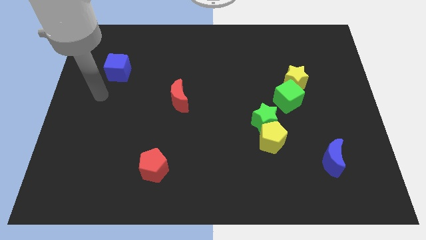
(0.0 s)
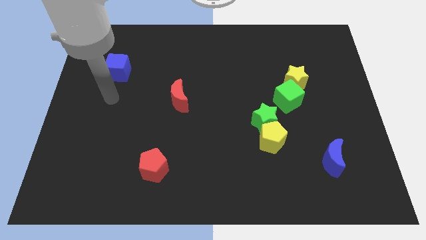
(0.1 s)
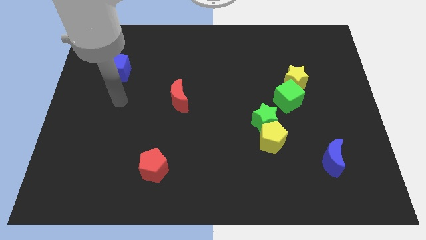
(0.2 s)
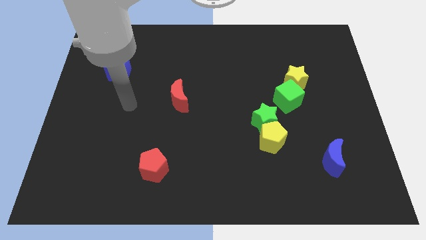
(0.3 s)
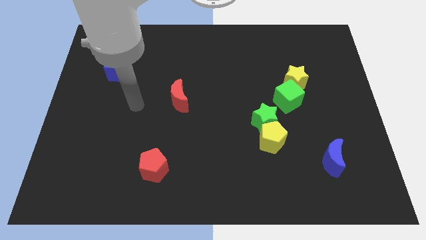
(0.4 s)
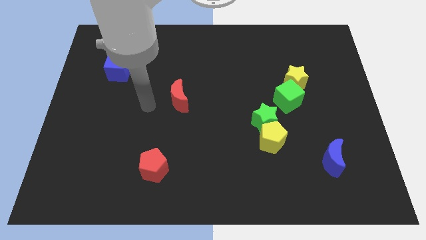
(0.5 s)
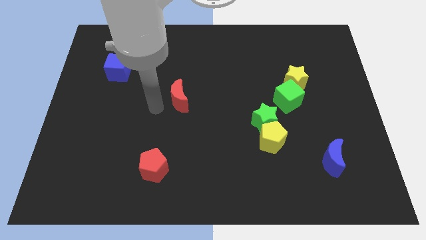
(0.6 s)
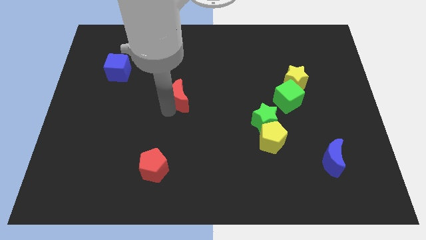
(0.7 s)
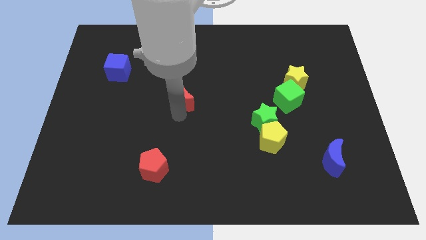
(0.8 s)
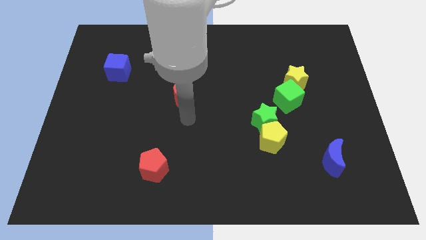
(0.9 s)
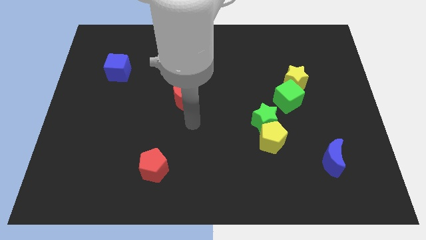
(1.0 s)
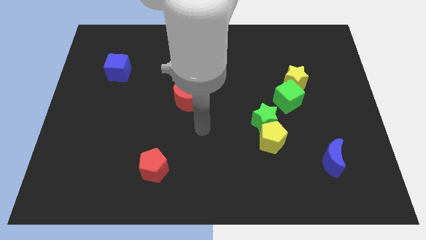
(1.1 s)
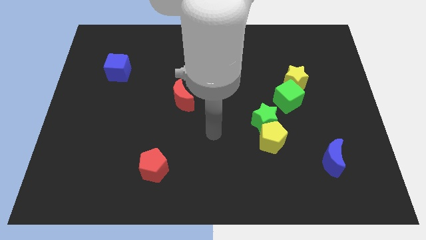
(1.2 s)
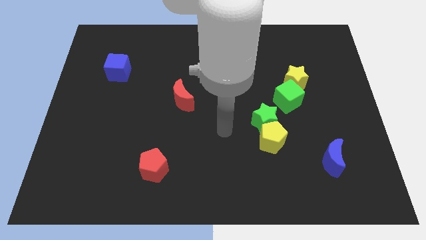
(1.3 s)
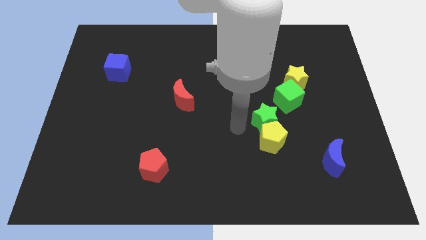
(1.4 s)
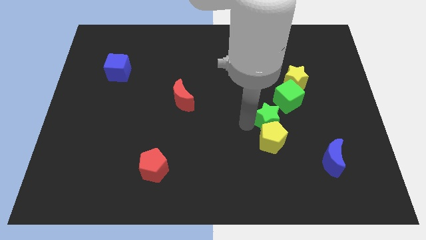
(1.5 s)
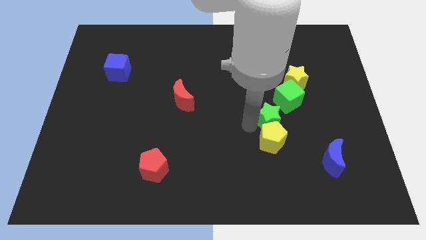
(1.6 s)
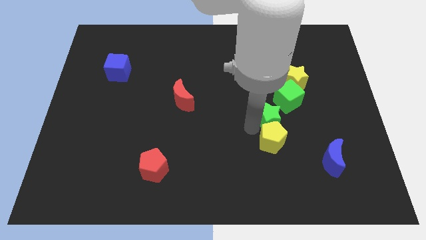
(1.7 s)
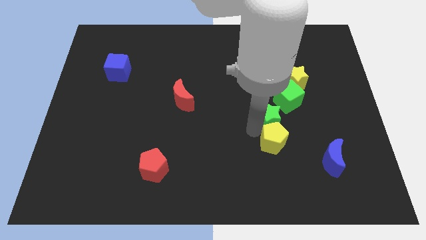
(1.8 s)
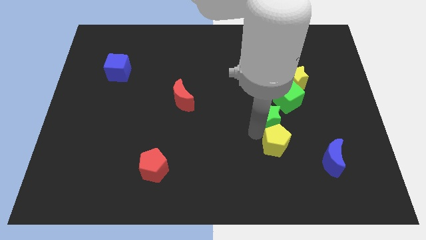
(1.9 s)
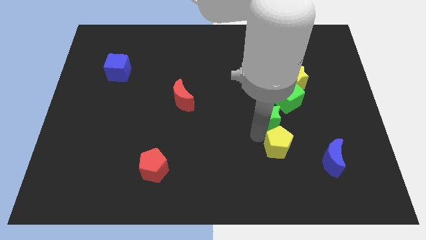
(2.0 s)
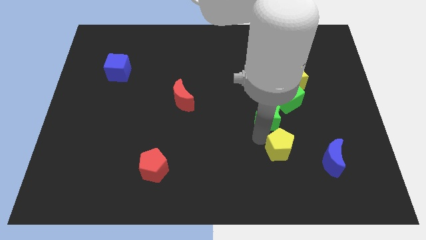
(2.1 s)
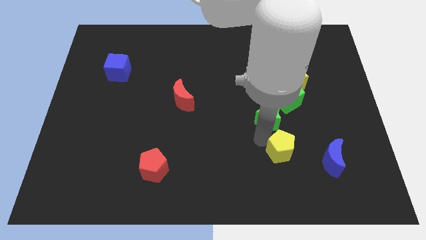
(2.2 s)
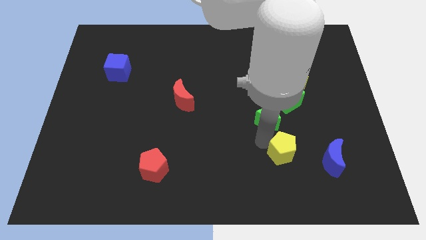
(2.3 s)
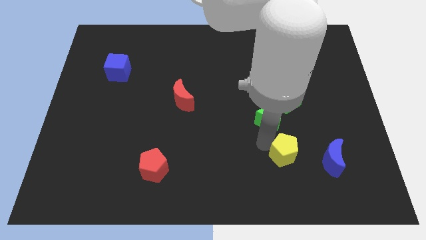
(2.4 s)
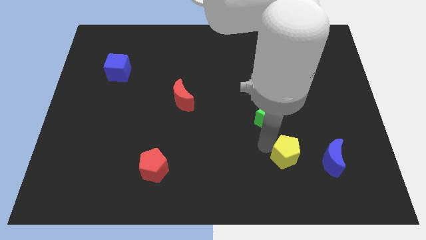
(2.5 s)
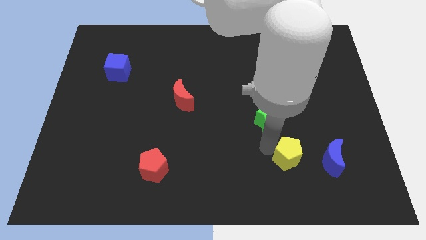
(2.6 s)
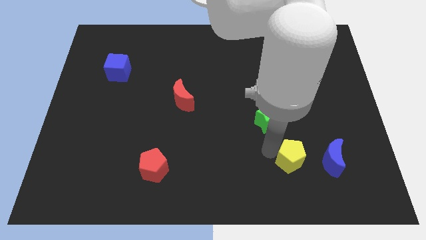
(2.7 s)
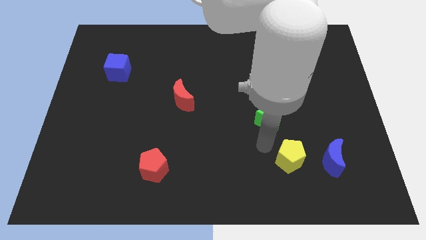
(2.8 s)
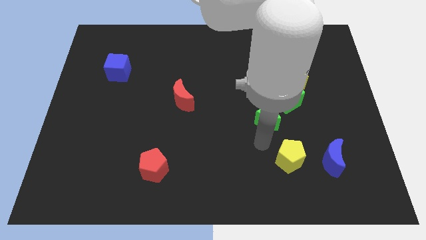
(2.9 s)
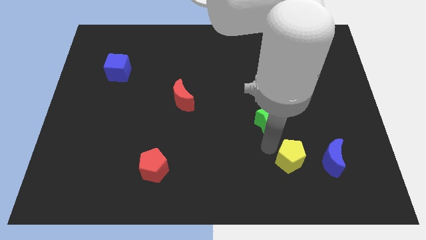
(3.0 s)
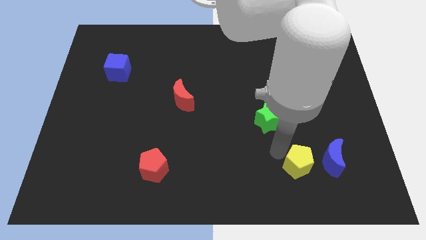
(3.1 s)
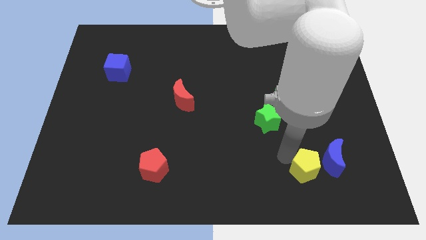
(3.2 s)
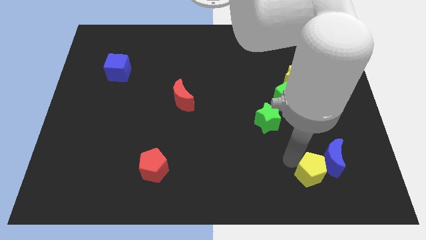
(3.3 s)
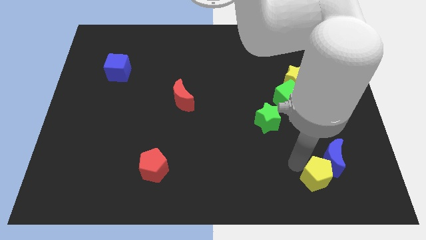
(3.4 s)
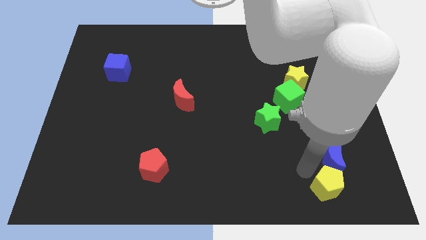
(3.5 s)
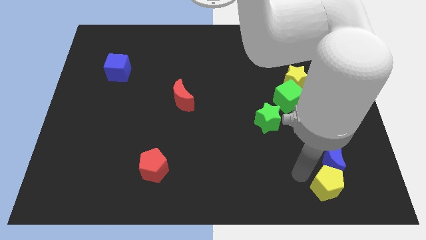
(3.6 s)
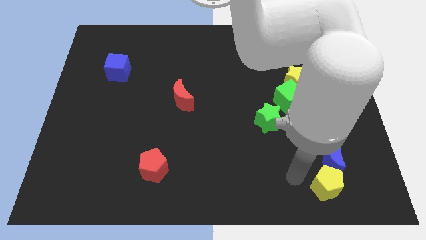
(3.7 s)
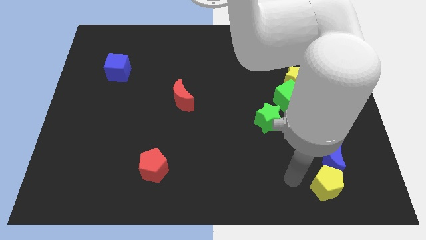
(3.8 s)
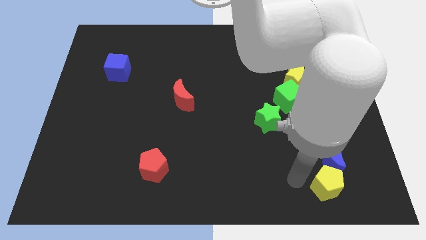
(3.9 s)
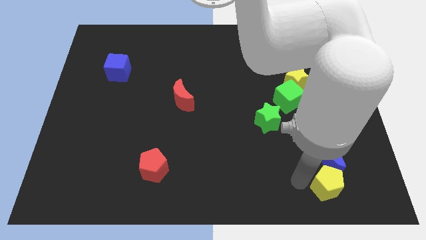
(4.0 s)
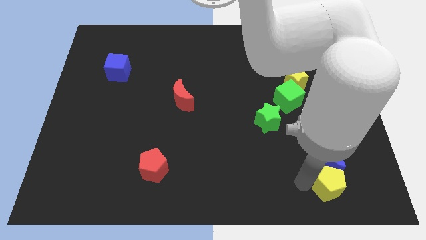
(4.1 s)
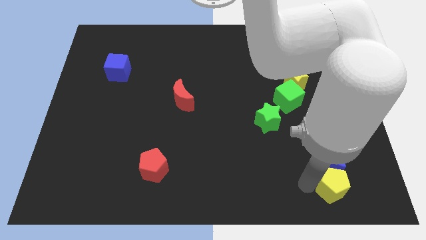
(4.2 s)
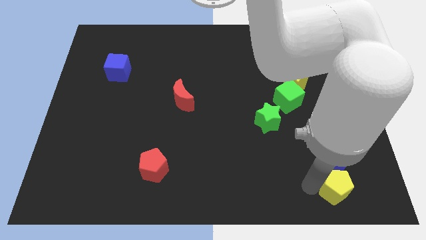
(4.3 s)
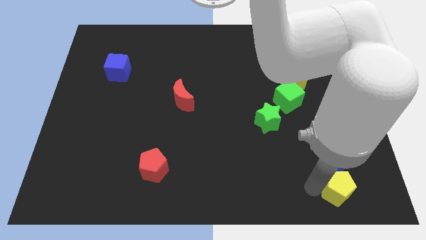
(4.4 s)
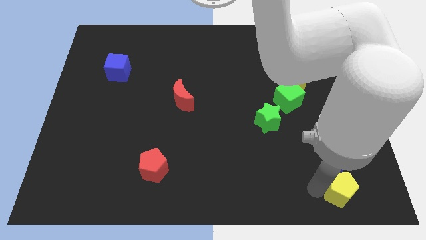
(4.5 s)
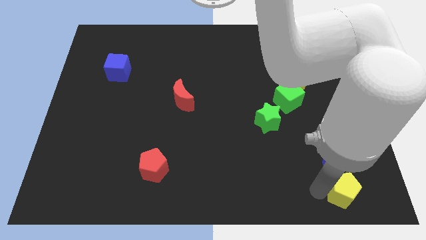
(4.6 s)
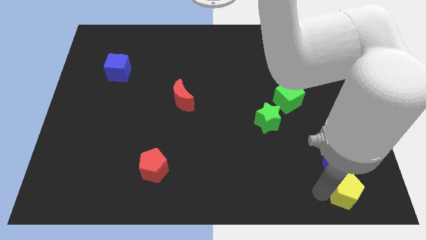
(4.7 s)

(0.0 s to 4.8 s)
push the yellow pentagon to the bottom right

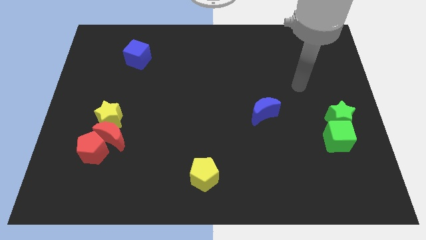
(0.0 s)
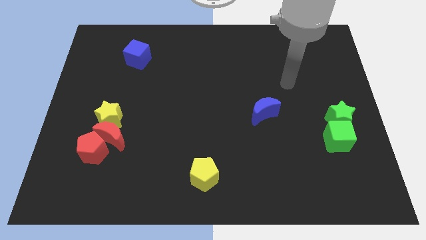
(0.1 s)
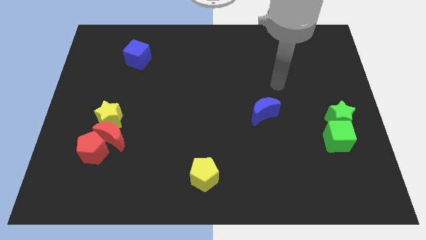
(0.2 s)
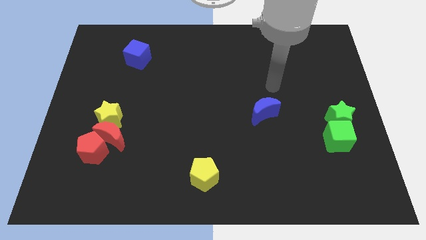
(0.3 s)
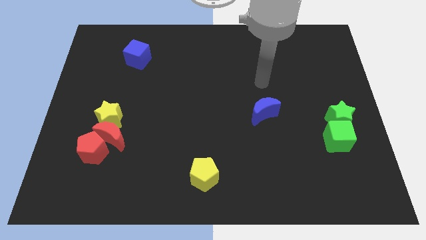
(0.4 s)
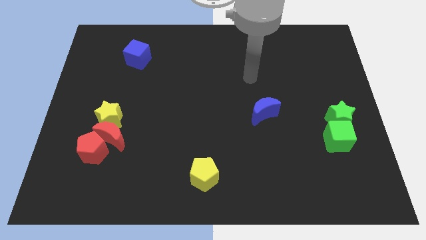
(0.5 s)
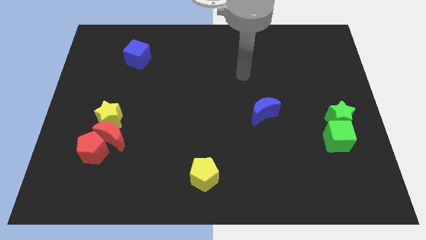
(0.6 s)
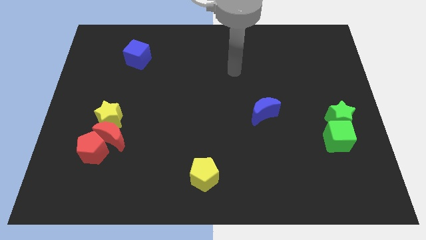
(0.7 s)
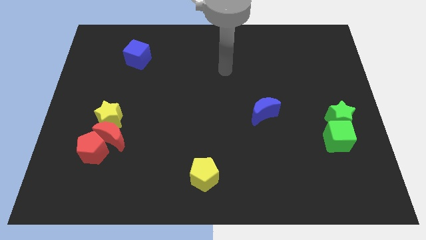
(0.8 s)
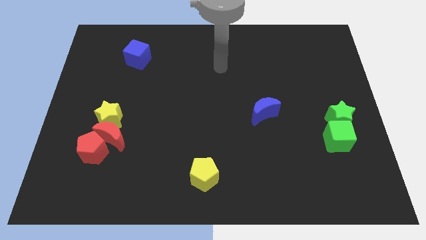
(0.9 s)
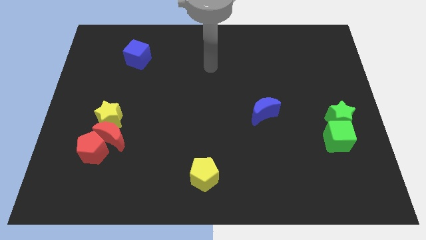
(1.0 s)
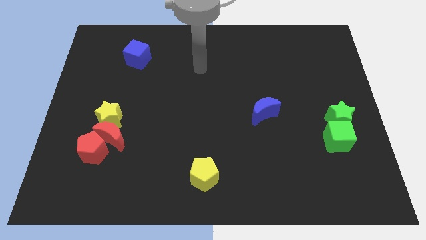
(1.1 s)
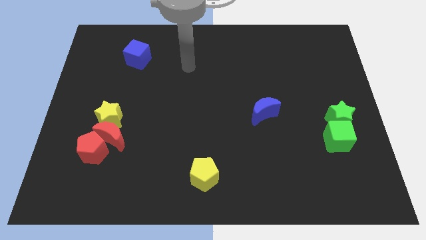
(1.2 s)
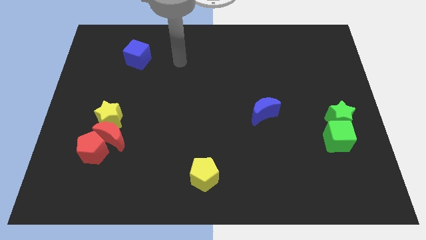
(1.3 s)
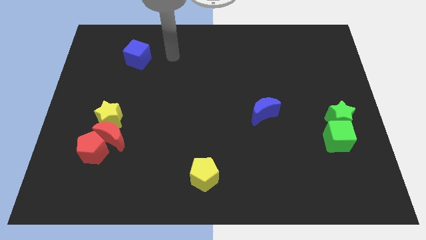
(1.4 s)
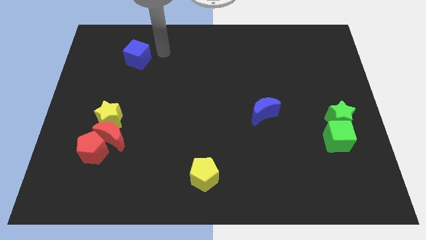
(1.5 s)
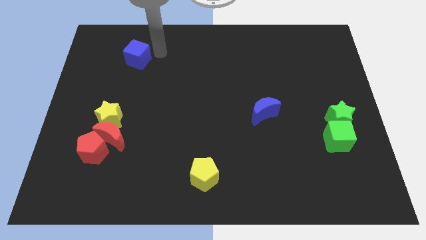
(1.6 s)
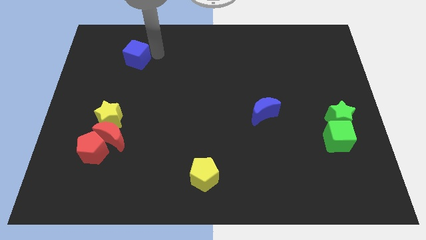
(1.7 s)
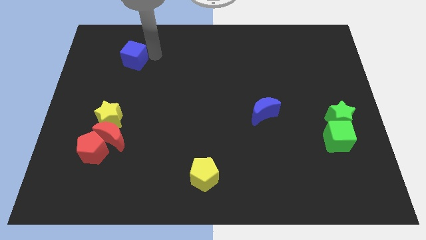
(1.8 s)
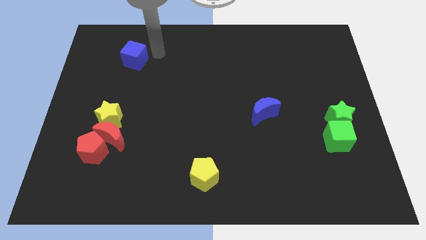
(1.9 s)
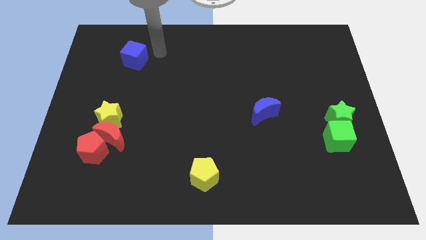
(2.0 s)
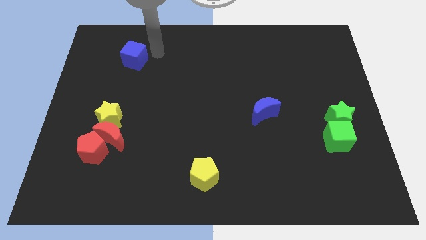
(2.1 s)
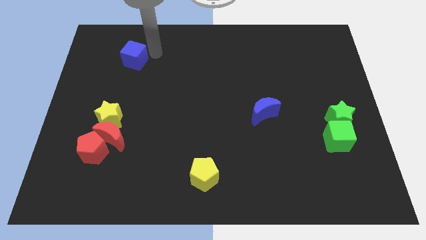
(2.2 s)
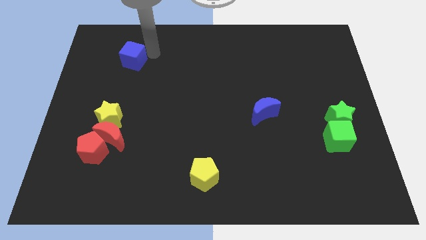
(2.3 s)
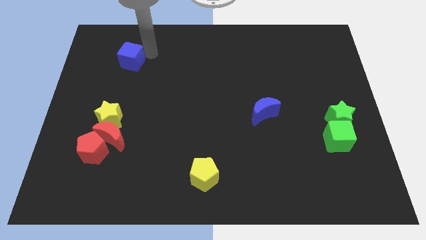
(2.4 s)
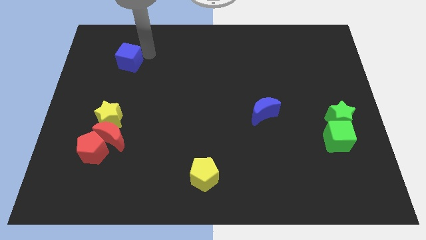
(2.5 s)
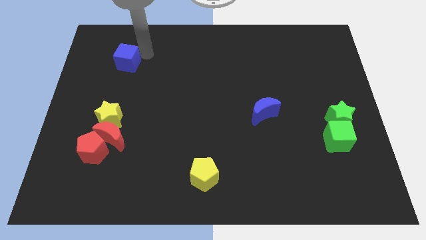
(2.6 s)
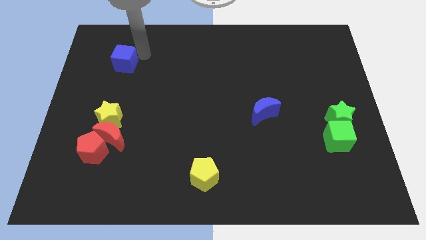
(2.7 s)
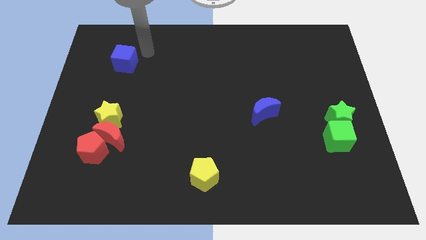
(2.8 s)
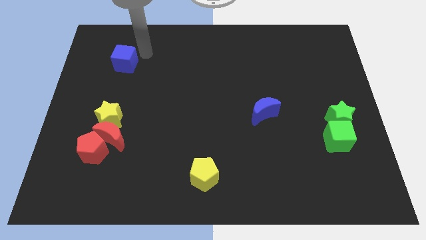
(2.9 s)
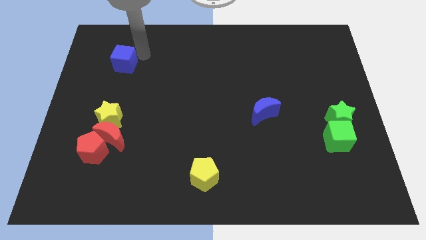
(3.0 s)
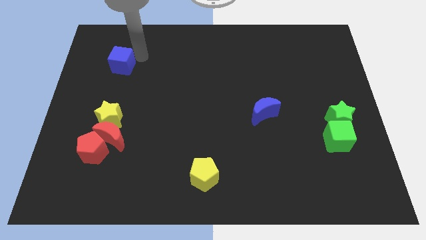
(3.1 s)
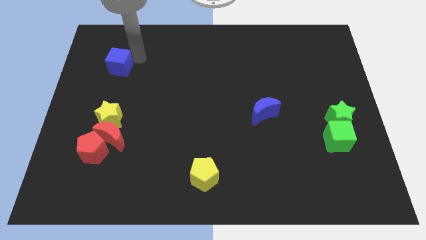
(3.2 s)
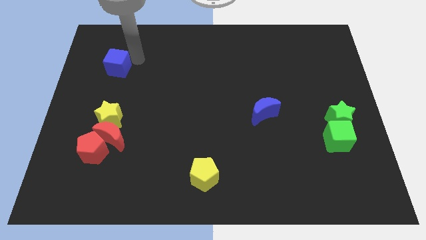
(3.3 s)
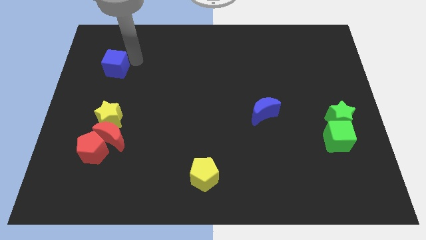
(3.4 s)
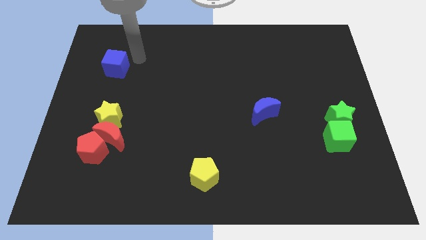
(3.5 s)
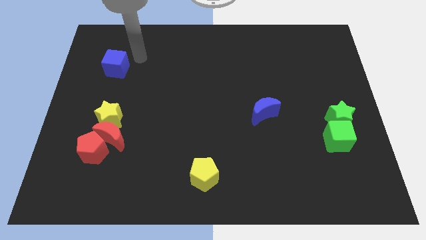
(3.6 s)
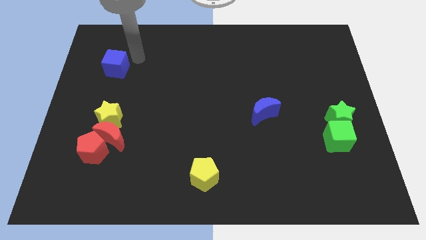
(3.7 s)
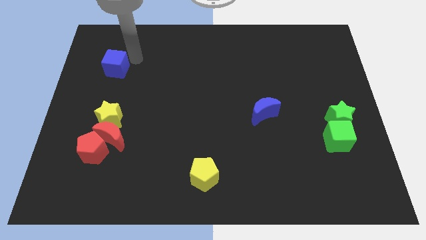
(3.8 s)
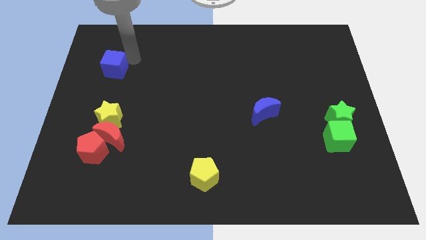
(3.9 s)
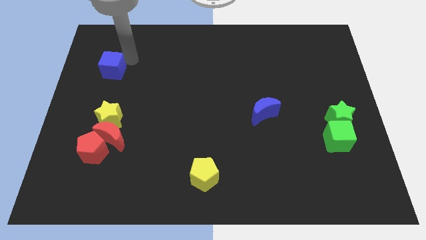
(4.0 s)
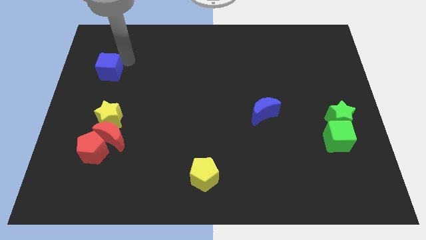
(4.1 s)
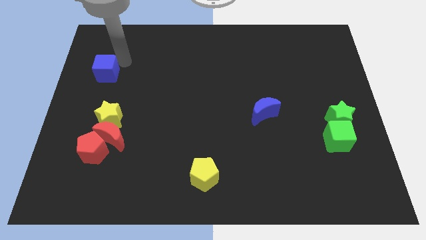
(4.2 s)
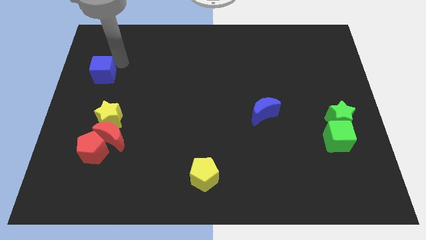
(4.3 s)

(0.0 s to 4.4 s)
slide the blue cube to the left side
